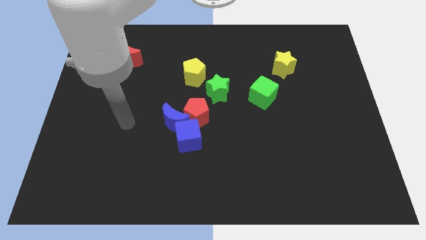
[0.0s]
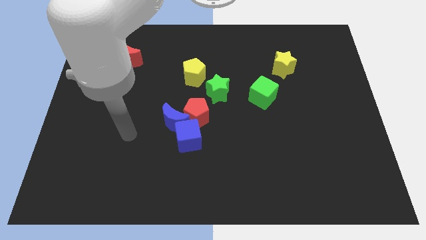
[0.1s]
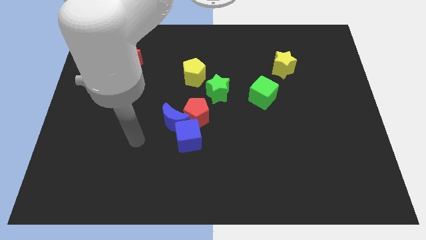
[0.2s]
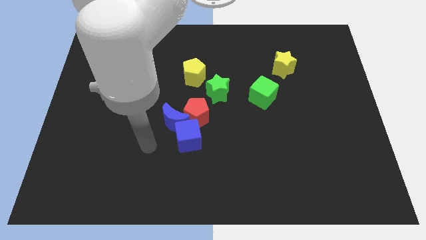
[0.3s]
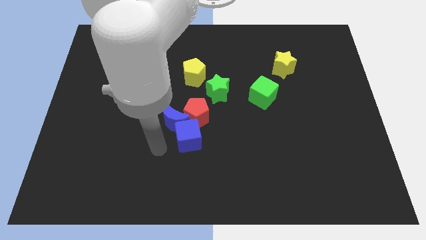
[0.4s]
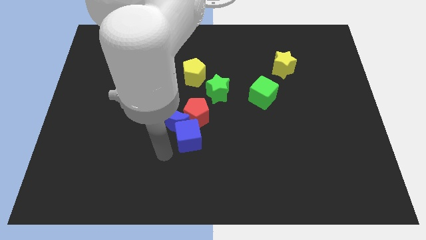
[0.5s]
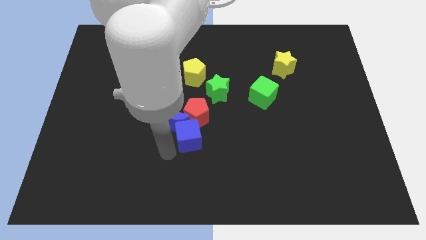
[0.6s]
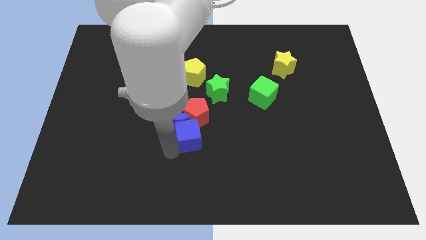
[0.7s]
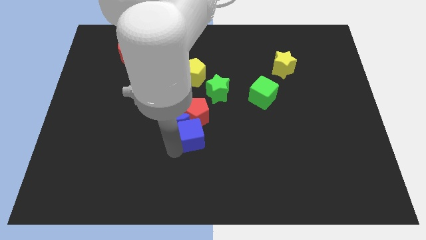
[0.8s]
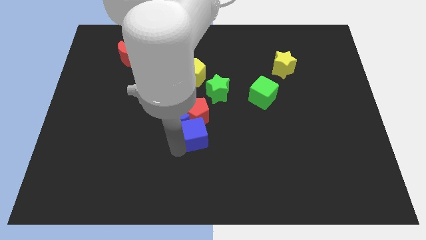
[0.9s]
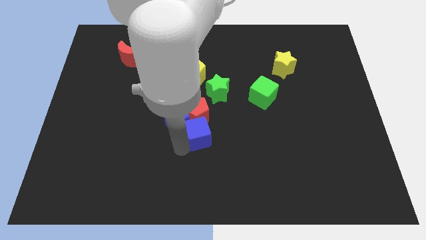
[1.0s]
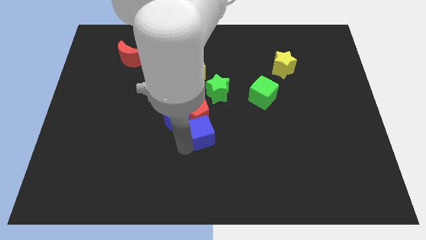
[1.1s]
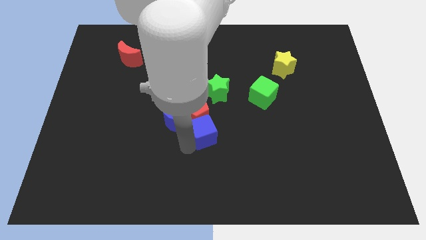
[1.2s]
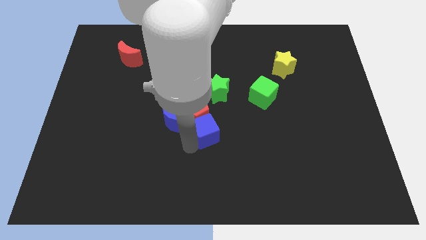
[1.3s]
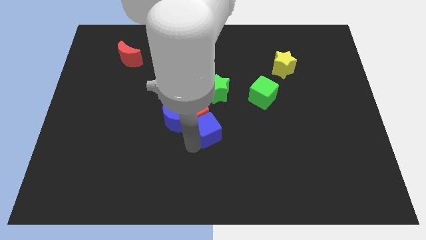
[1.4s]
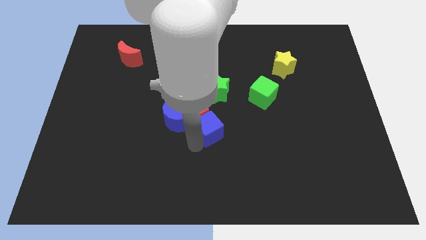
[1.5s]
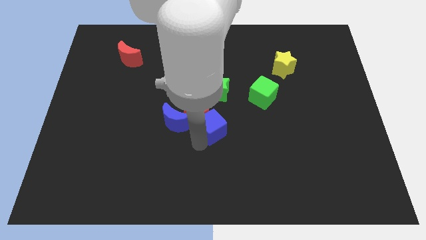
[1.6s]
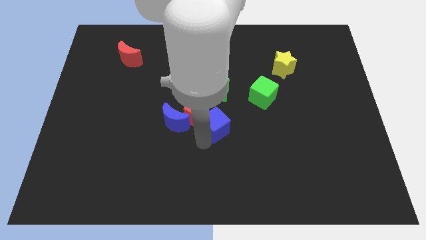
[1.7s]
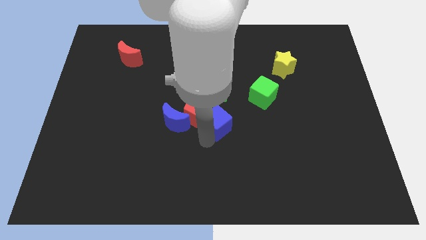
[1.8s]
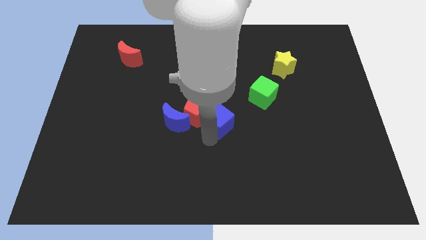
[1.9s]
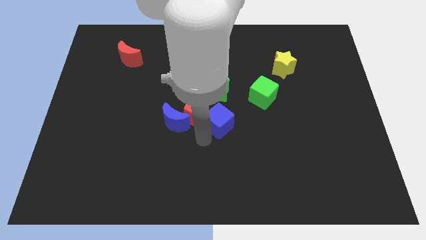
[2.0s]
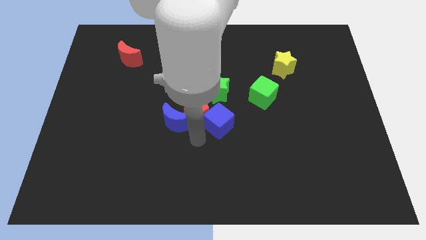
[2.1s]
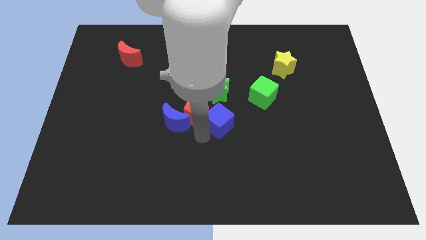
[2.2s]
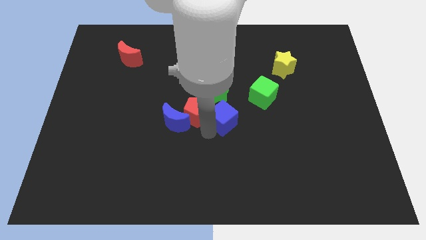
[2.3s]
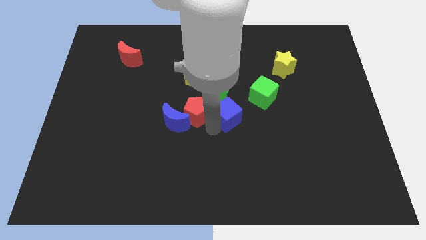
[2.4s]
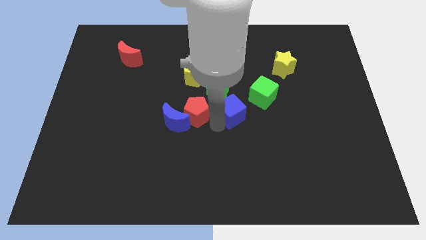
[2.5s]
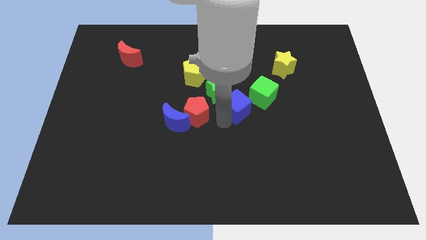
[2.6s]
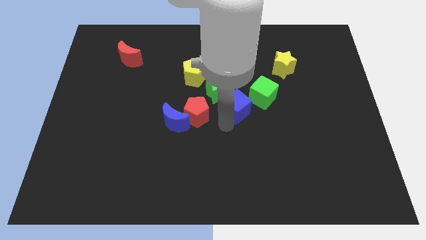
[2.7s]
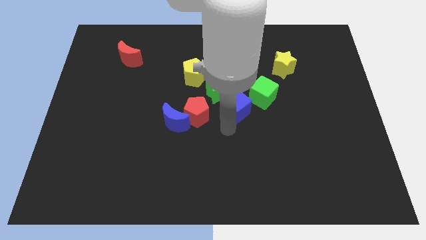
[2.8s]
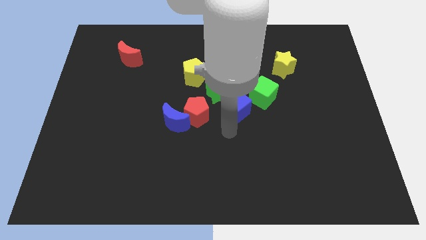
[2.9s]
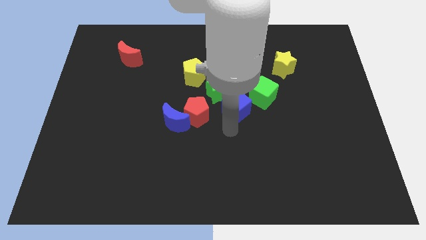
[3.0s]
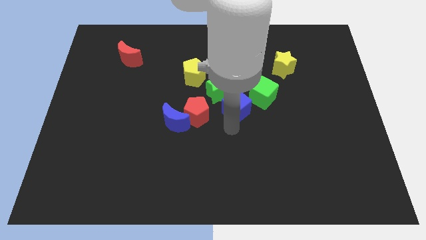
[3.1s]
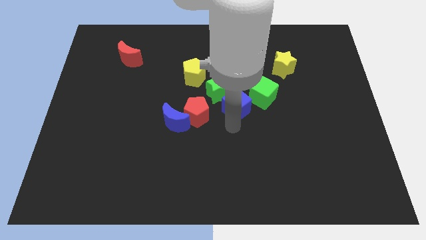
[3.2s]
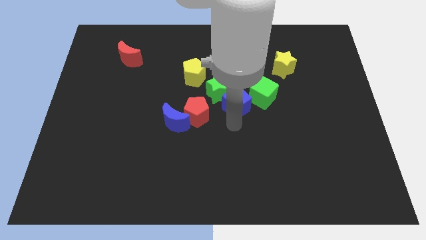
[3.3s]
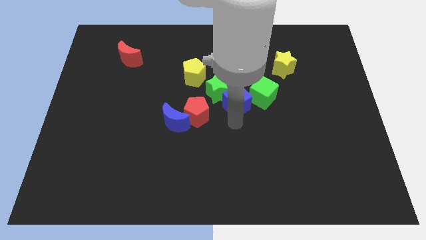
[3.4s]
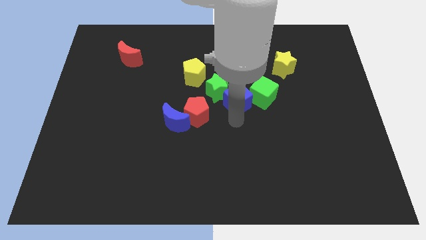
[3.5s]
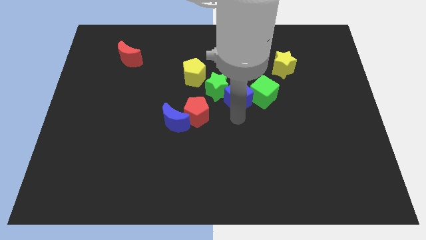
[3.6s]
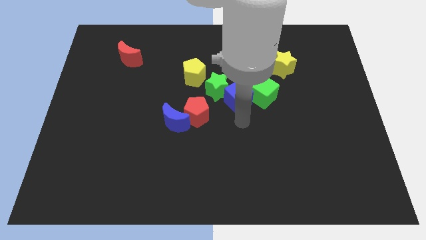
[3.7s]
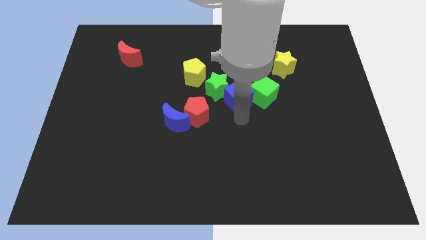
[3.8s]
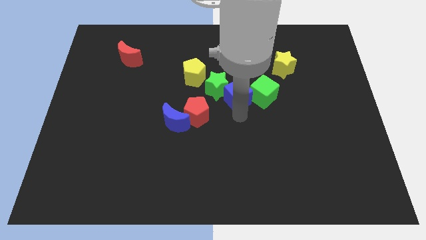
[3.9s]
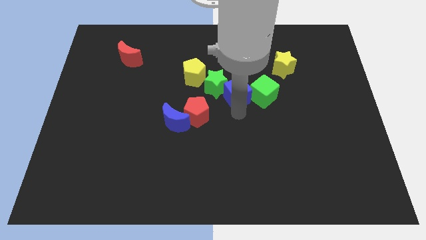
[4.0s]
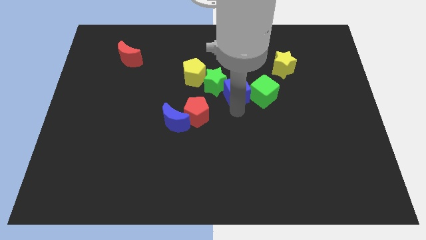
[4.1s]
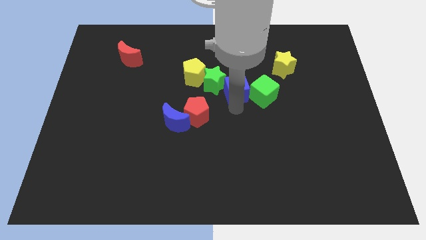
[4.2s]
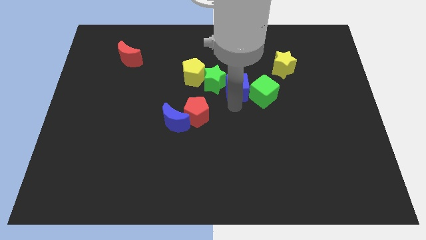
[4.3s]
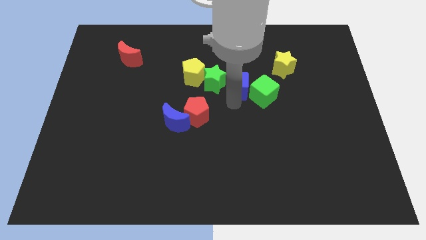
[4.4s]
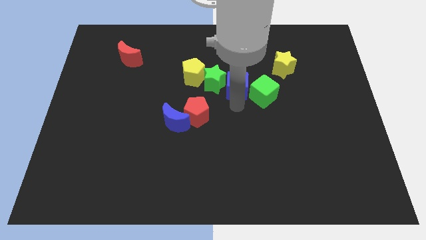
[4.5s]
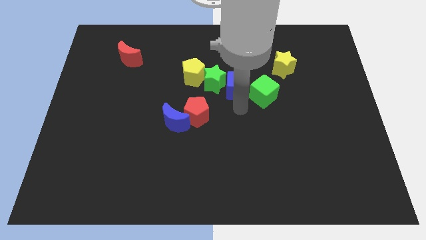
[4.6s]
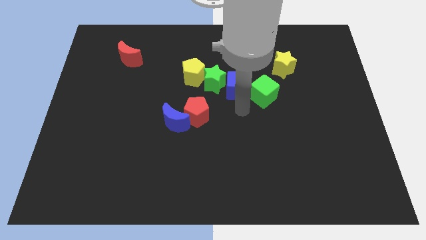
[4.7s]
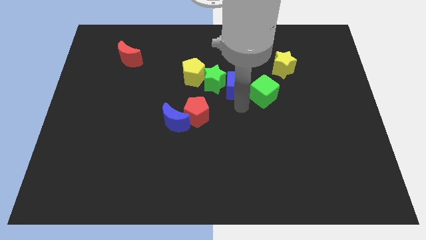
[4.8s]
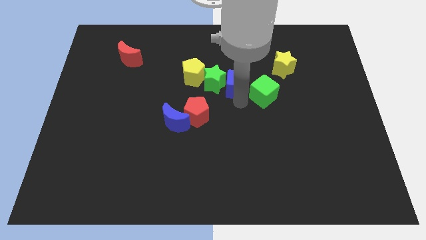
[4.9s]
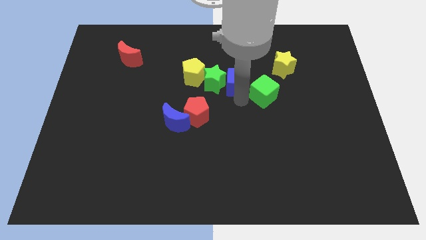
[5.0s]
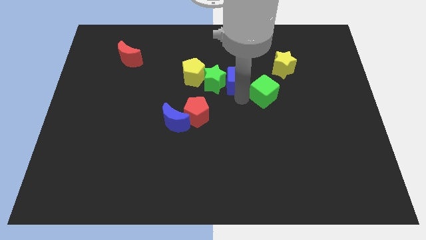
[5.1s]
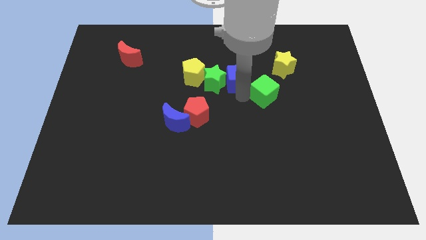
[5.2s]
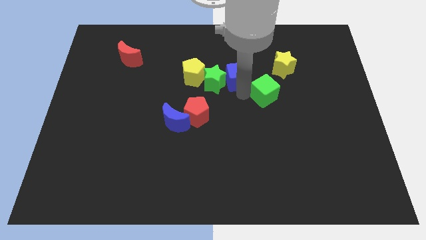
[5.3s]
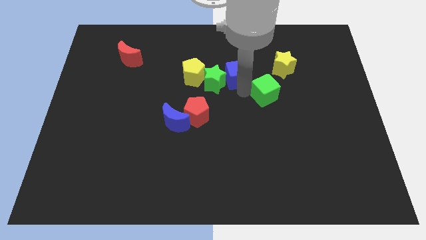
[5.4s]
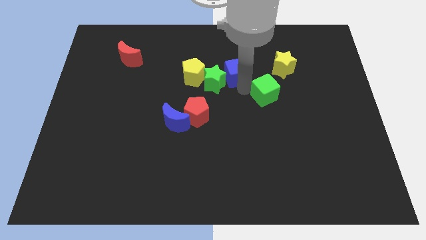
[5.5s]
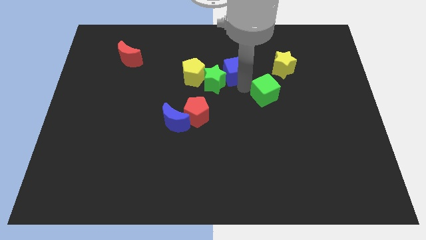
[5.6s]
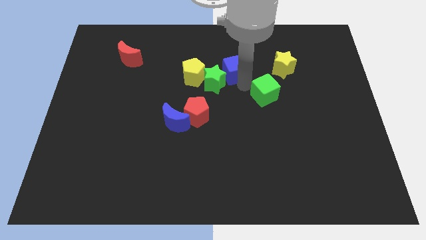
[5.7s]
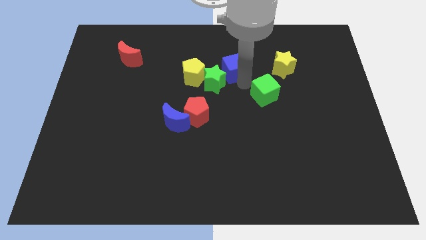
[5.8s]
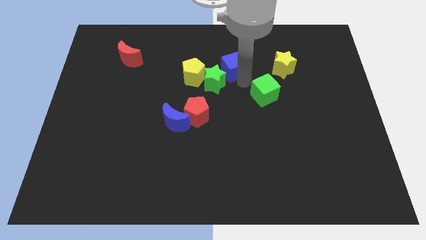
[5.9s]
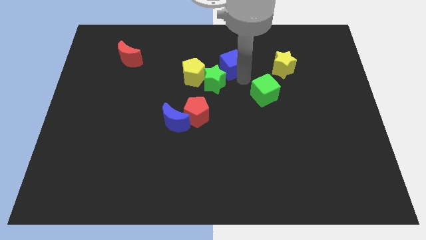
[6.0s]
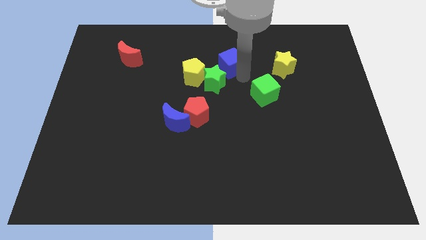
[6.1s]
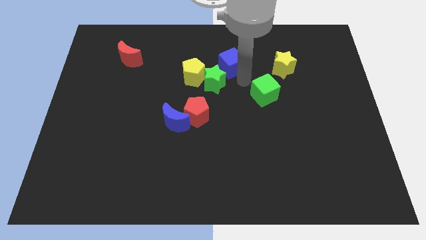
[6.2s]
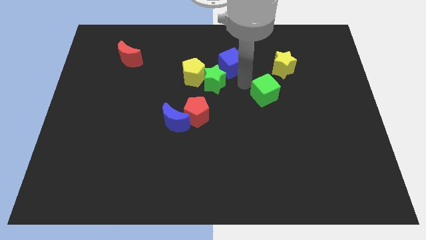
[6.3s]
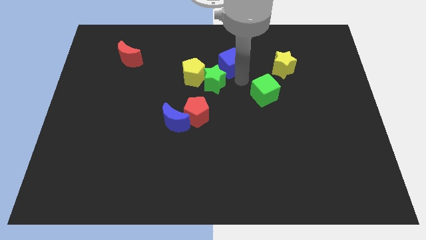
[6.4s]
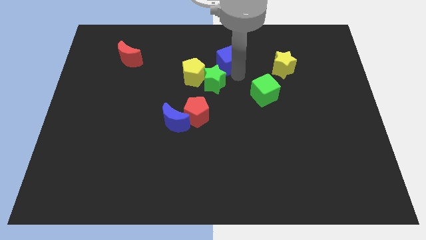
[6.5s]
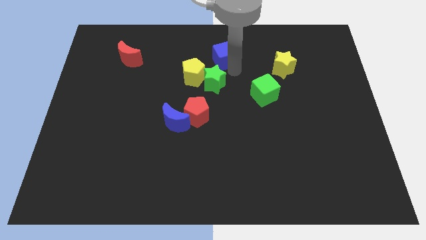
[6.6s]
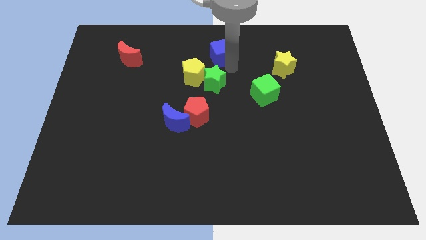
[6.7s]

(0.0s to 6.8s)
move the blue cube to the top side
